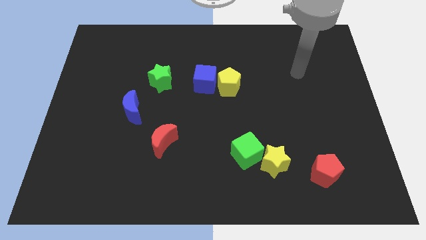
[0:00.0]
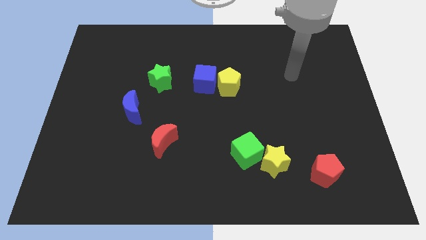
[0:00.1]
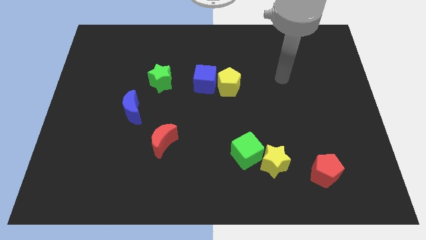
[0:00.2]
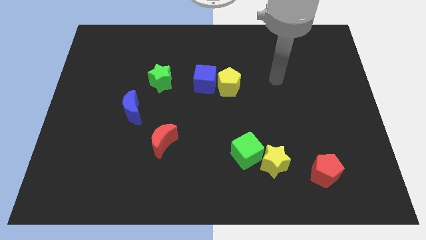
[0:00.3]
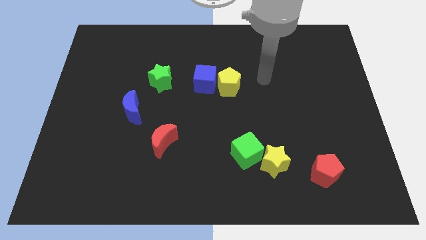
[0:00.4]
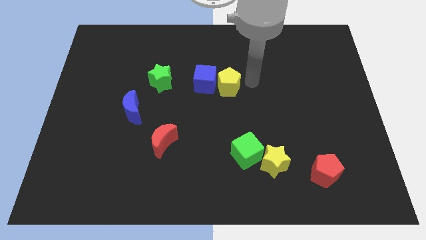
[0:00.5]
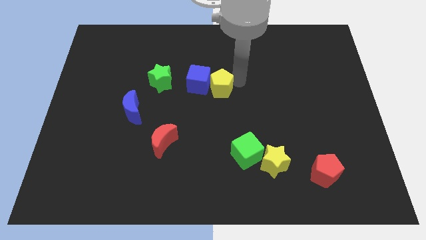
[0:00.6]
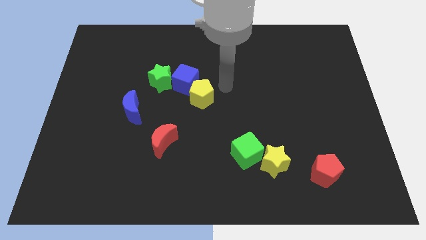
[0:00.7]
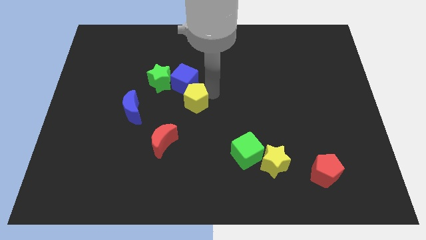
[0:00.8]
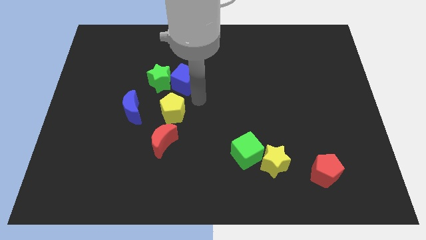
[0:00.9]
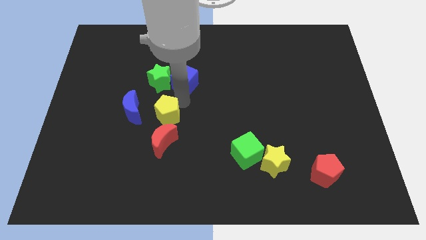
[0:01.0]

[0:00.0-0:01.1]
separate the blue cube from the yellow pentagon

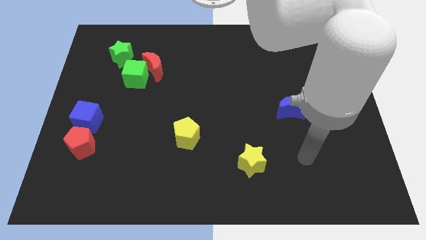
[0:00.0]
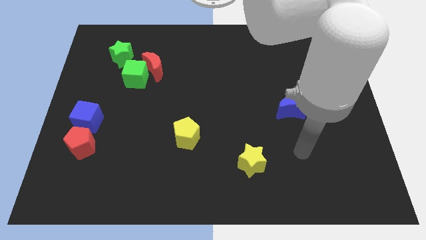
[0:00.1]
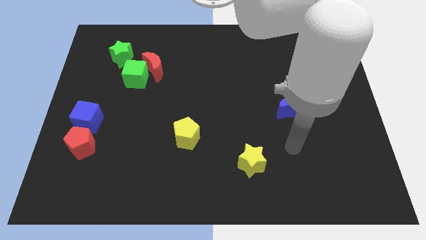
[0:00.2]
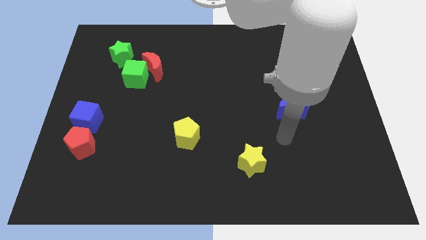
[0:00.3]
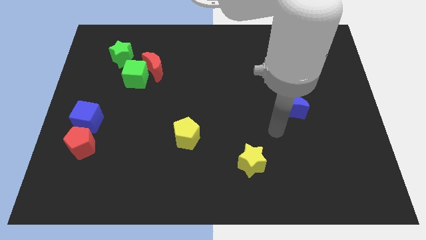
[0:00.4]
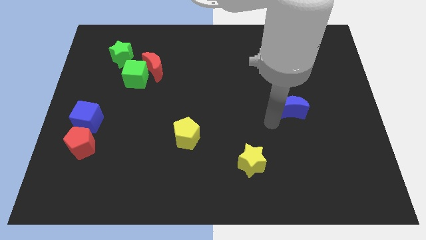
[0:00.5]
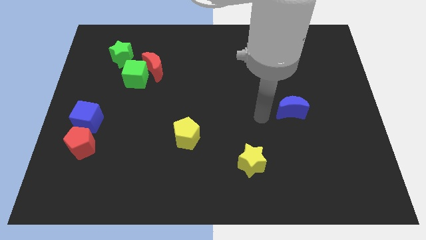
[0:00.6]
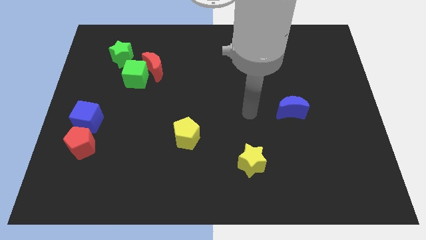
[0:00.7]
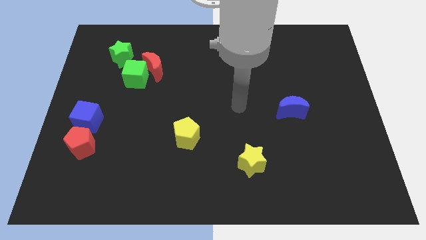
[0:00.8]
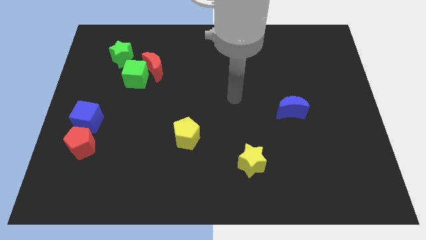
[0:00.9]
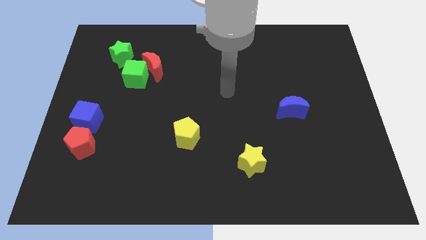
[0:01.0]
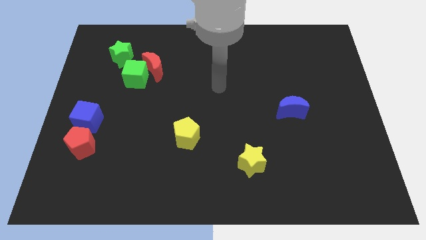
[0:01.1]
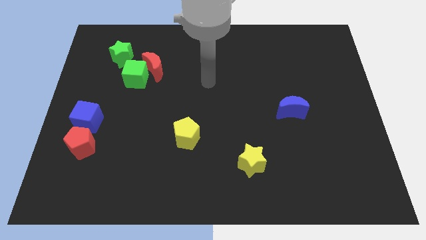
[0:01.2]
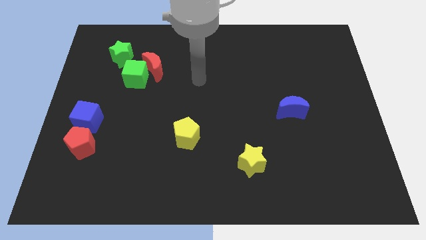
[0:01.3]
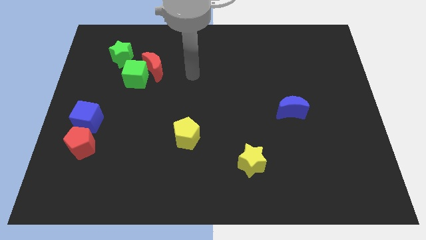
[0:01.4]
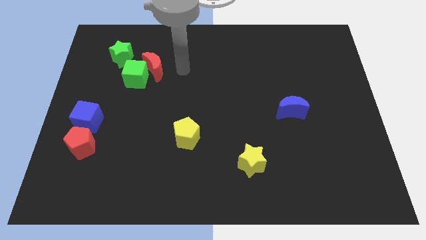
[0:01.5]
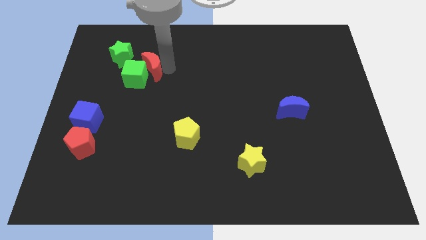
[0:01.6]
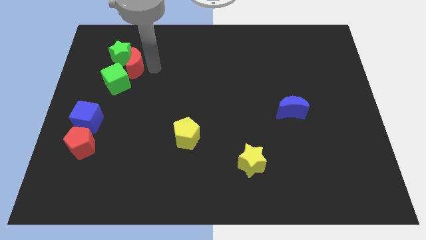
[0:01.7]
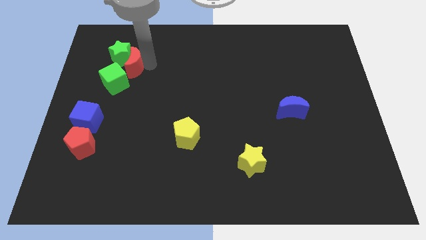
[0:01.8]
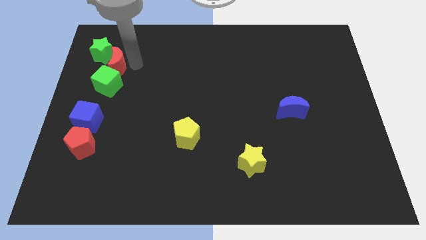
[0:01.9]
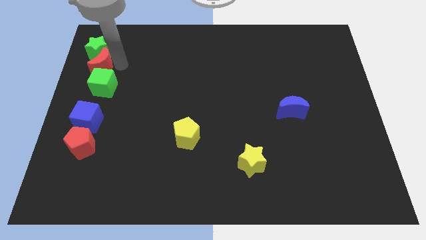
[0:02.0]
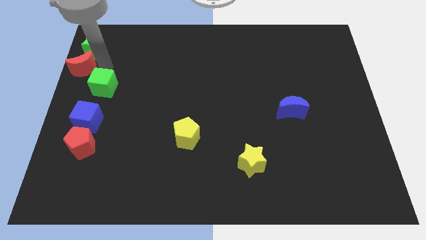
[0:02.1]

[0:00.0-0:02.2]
pull the green cube apart from the red moon and green star

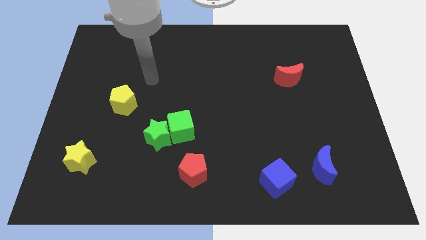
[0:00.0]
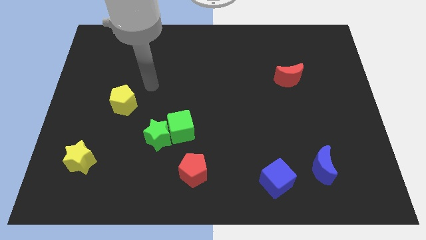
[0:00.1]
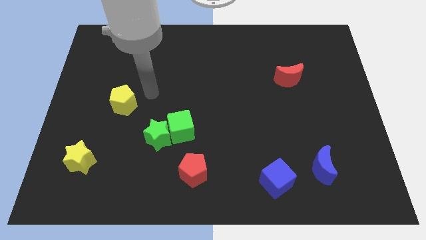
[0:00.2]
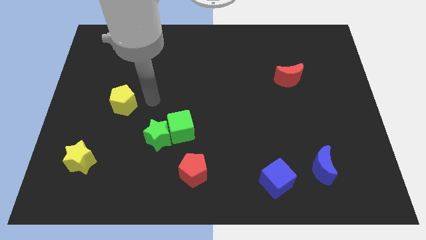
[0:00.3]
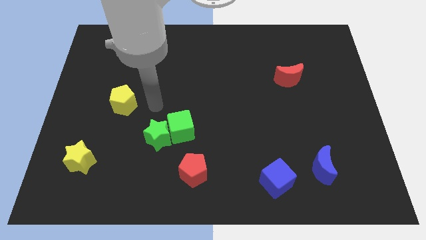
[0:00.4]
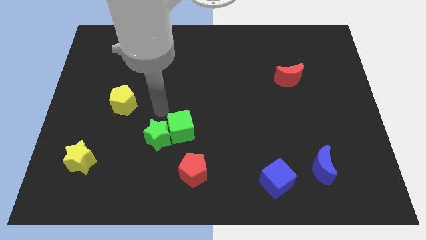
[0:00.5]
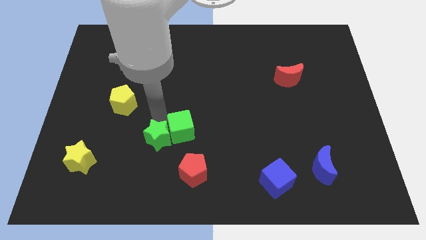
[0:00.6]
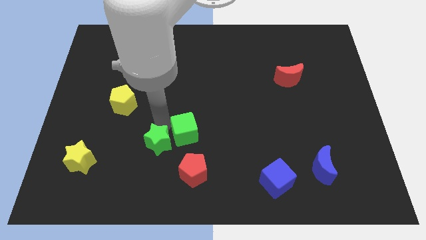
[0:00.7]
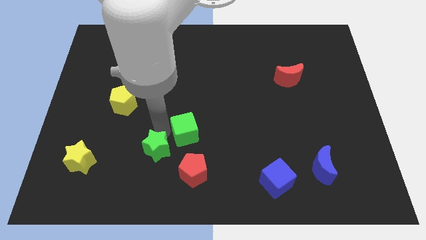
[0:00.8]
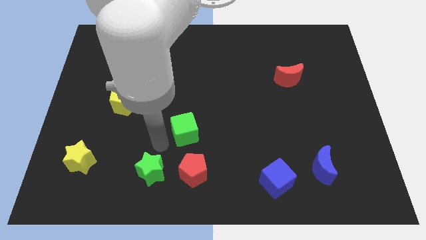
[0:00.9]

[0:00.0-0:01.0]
pull the green cube apart from the green star

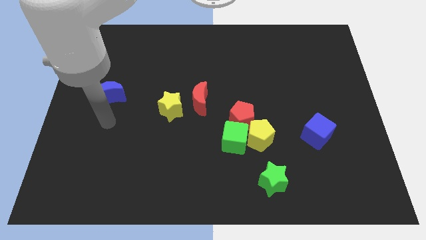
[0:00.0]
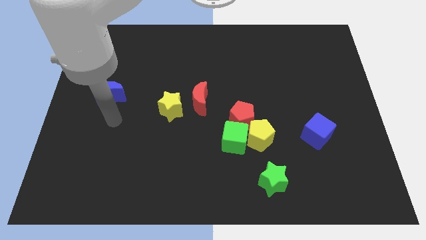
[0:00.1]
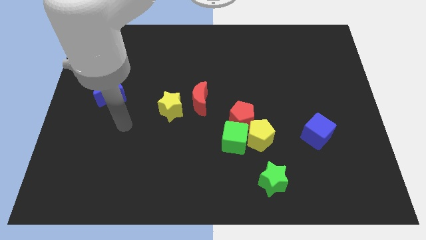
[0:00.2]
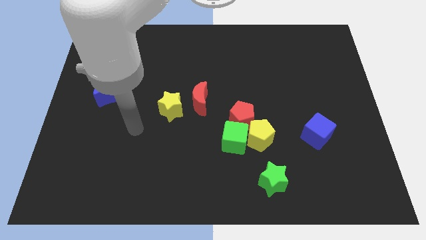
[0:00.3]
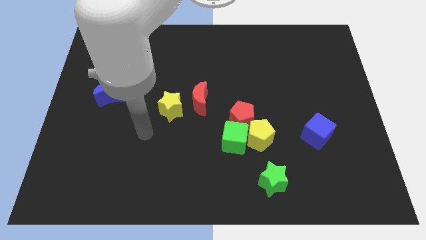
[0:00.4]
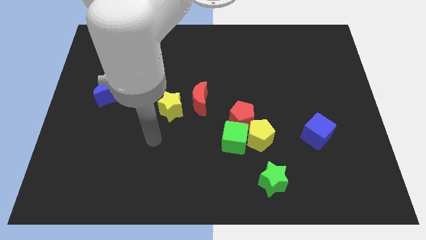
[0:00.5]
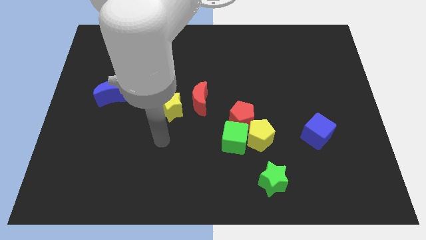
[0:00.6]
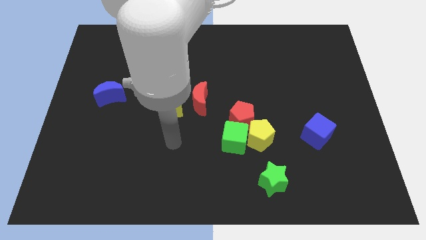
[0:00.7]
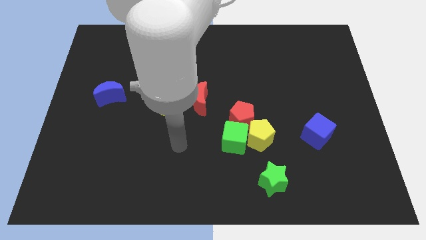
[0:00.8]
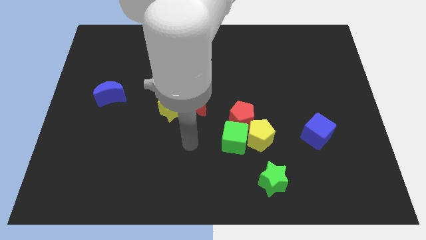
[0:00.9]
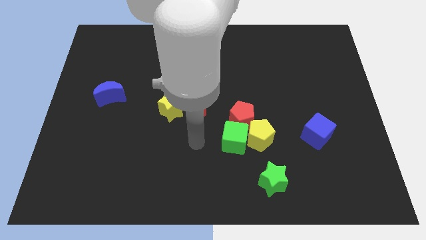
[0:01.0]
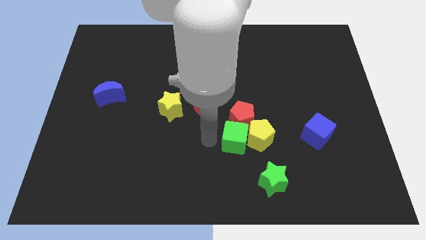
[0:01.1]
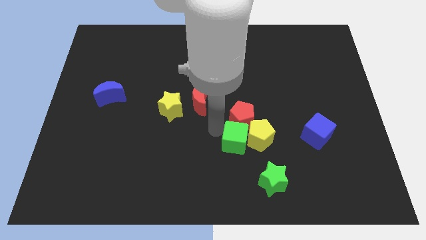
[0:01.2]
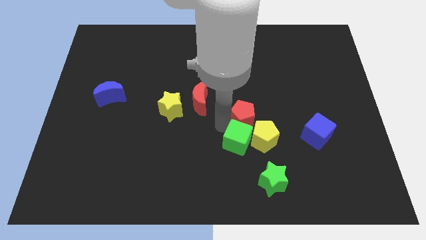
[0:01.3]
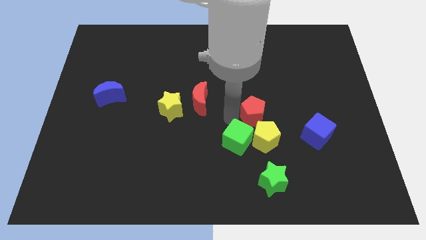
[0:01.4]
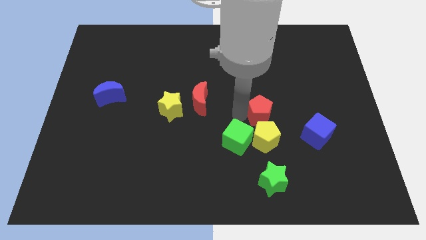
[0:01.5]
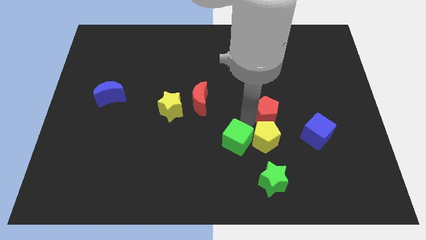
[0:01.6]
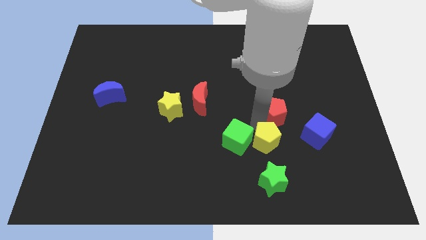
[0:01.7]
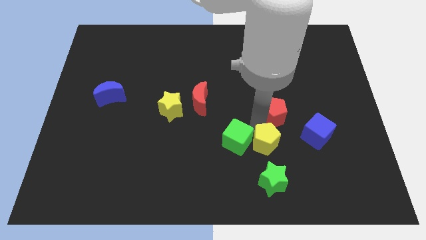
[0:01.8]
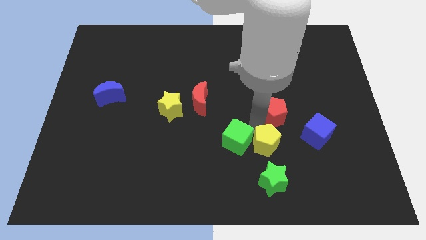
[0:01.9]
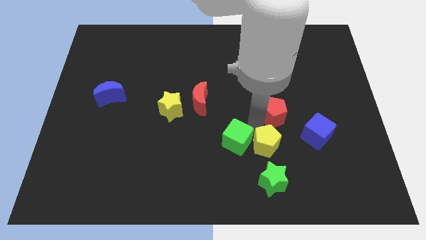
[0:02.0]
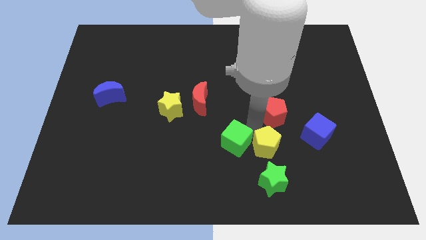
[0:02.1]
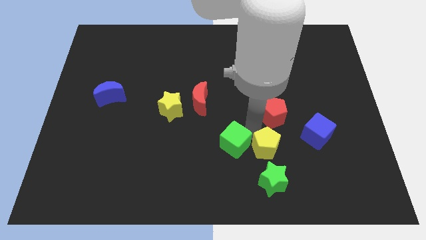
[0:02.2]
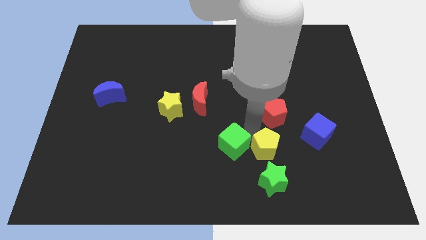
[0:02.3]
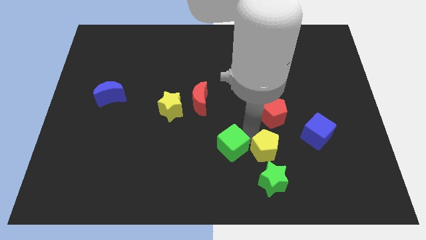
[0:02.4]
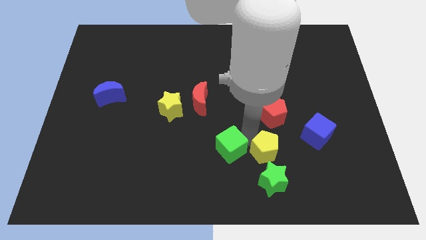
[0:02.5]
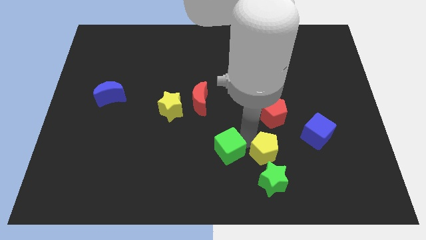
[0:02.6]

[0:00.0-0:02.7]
move the green cube away from the yellow pentagon and red pentagon

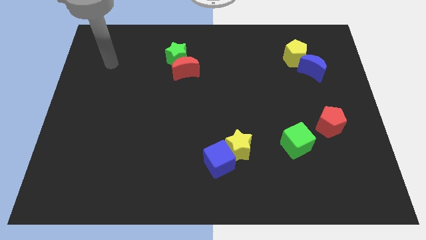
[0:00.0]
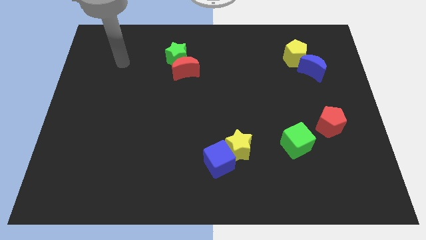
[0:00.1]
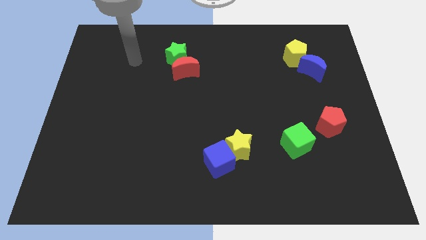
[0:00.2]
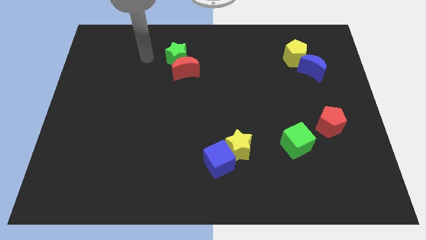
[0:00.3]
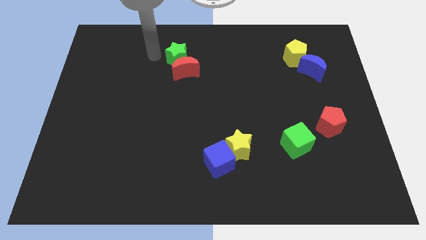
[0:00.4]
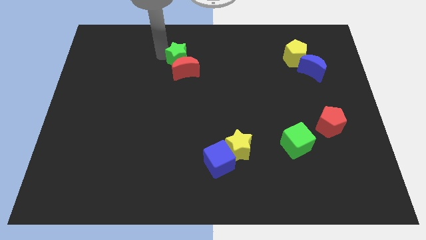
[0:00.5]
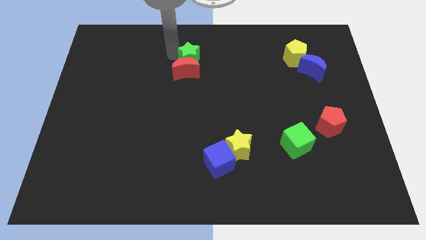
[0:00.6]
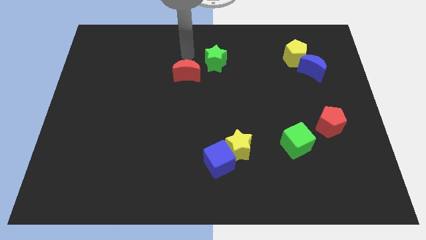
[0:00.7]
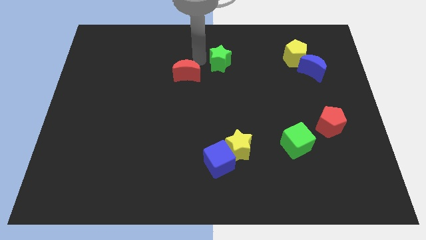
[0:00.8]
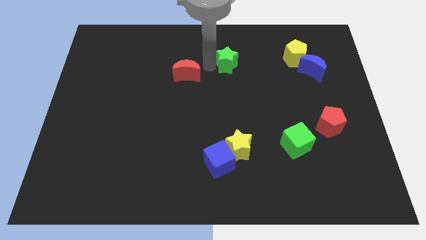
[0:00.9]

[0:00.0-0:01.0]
pull the red moon apart from the green star

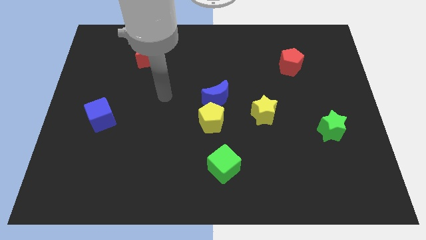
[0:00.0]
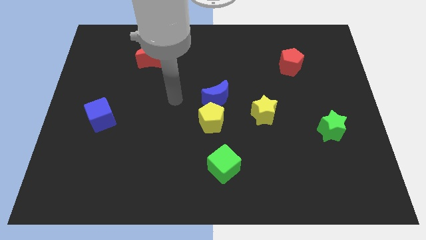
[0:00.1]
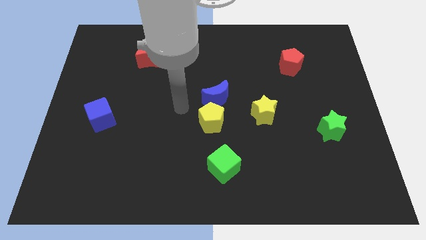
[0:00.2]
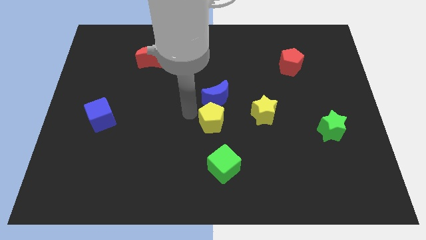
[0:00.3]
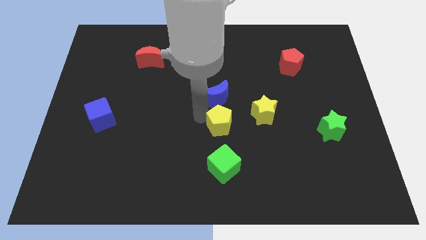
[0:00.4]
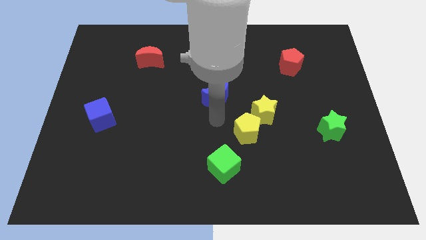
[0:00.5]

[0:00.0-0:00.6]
separate the blue moon from the yellow pentagon

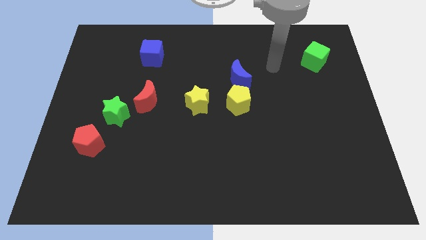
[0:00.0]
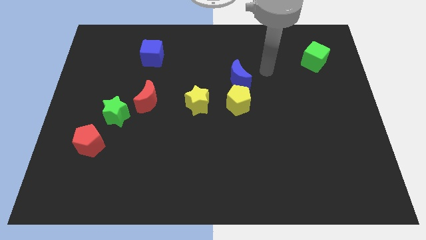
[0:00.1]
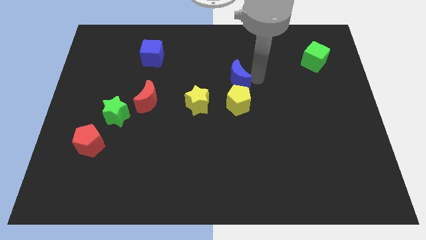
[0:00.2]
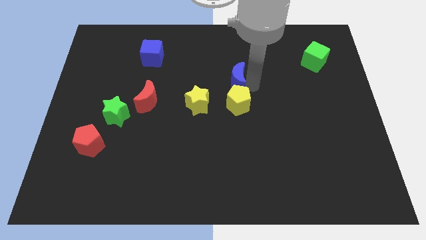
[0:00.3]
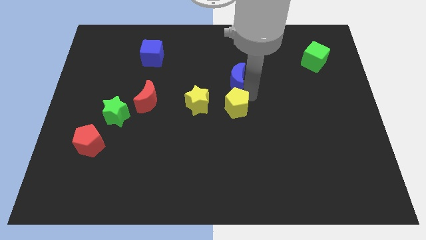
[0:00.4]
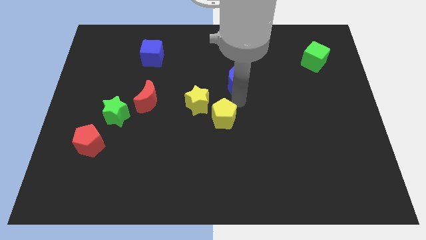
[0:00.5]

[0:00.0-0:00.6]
pull the blue moon apart from the yellow pentagon

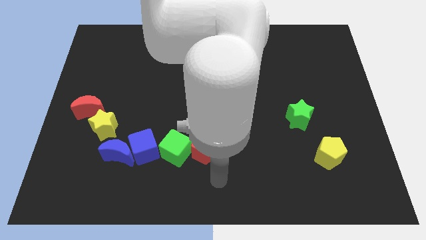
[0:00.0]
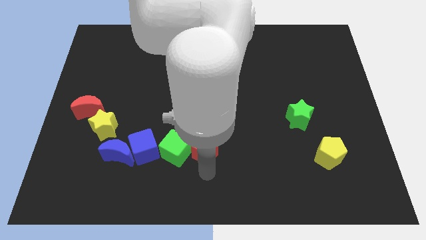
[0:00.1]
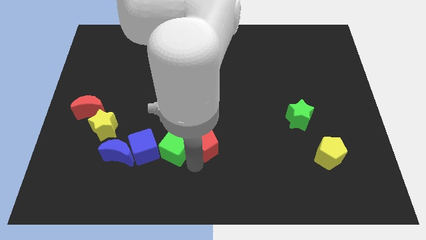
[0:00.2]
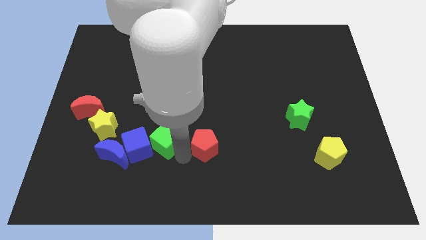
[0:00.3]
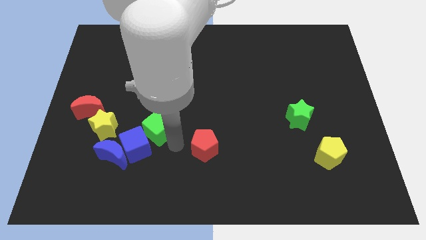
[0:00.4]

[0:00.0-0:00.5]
move the red pentagon away from the green cube
